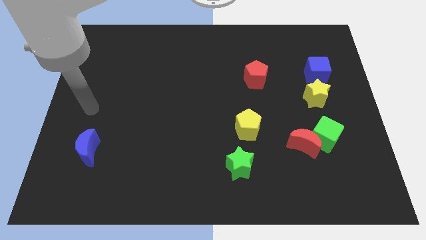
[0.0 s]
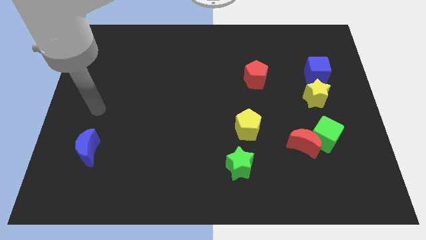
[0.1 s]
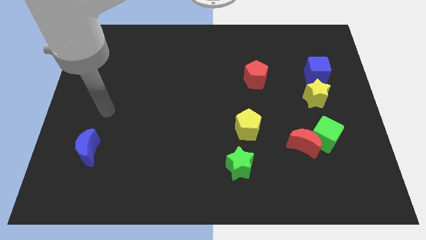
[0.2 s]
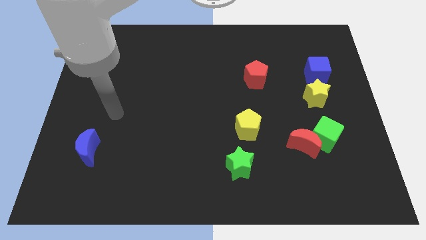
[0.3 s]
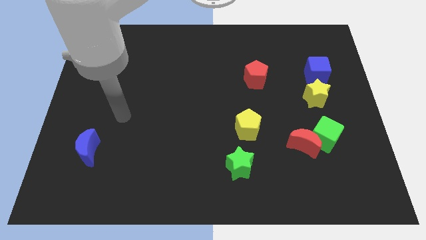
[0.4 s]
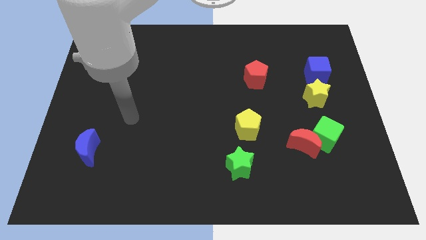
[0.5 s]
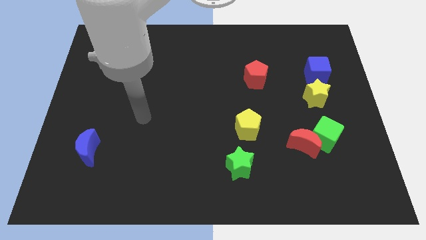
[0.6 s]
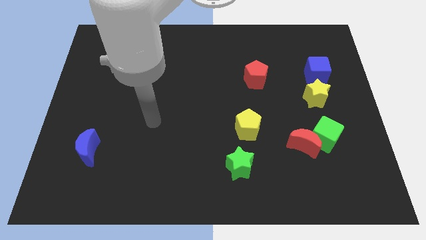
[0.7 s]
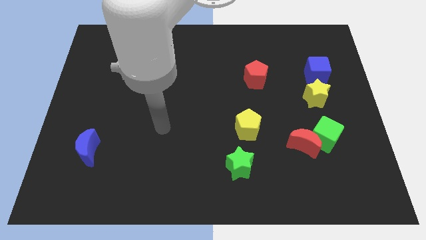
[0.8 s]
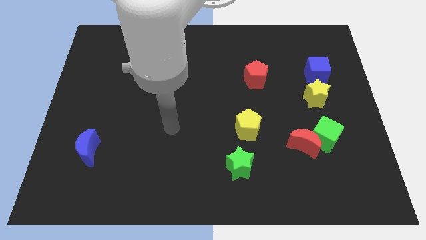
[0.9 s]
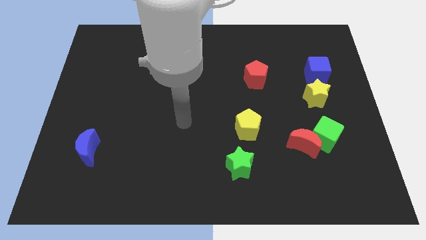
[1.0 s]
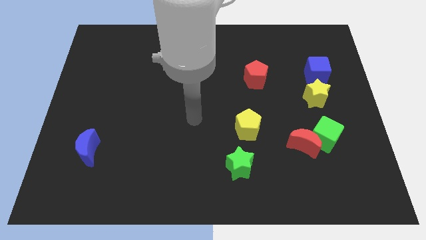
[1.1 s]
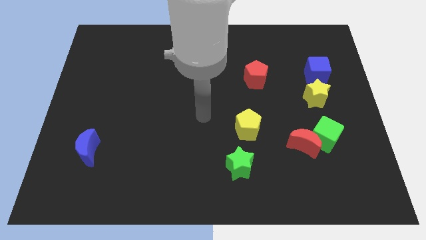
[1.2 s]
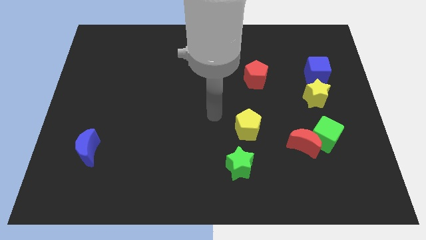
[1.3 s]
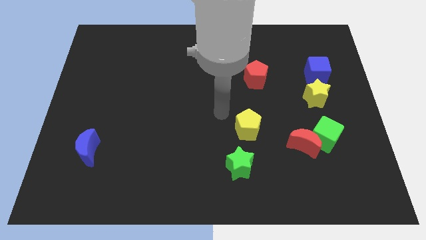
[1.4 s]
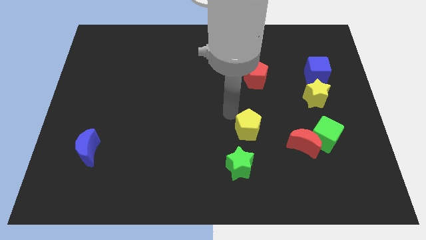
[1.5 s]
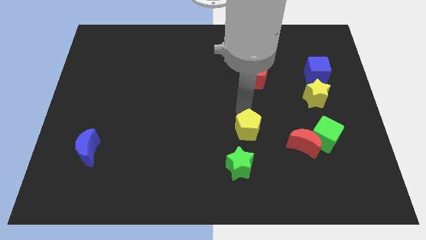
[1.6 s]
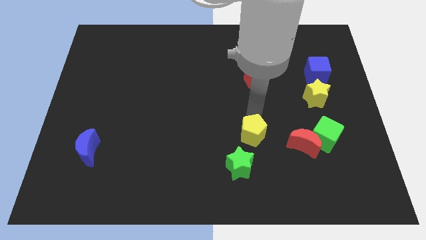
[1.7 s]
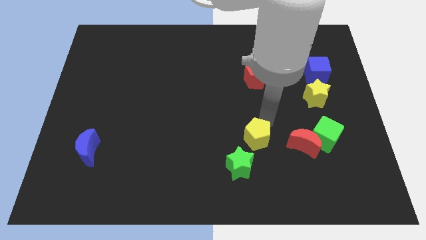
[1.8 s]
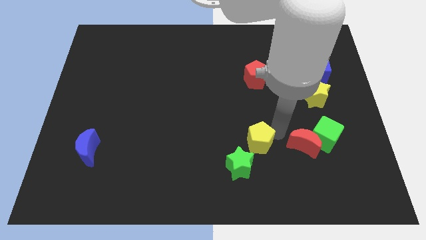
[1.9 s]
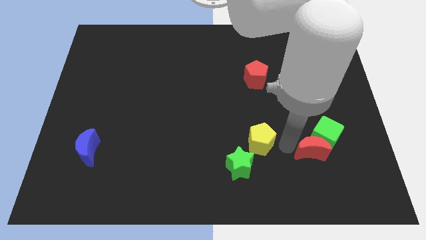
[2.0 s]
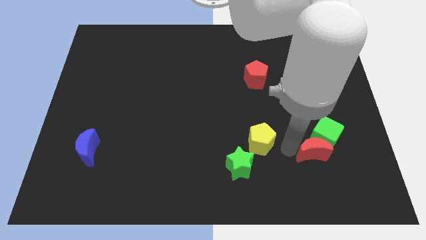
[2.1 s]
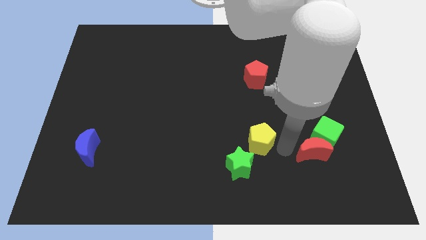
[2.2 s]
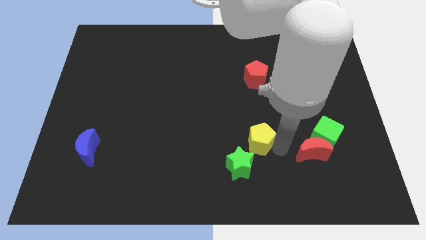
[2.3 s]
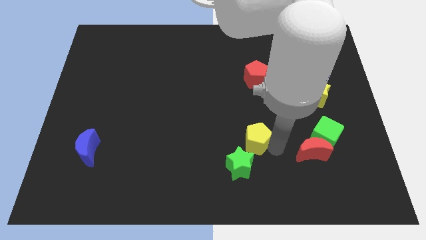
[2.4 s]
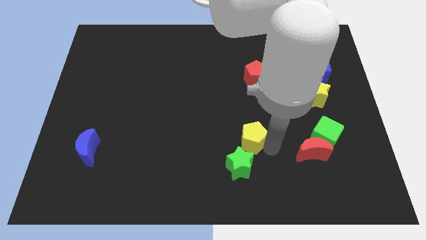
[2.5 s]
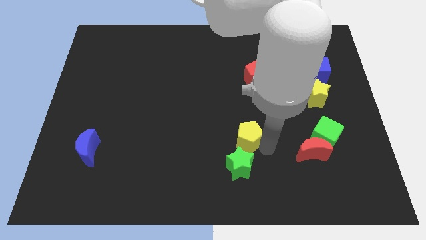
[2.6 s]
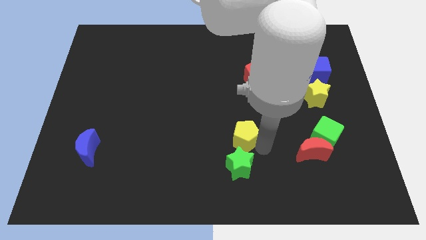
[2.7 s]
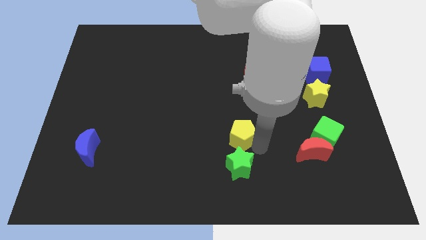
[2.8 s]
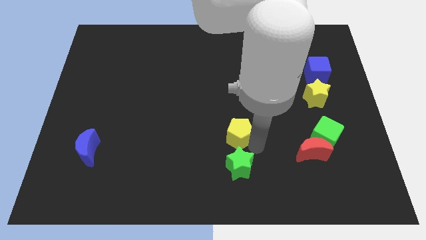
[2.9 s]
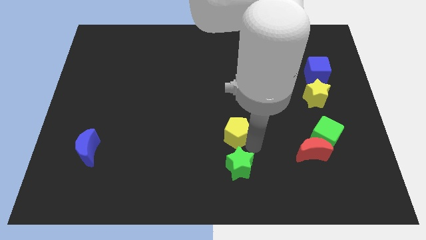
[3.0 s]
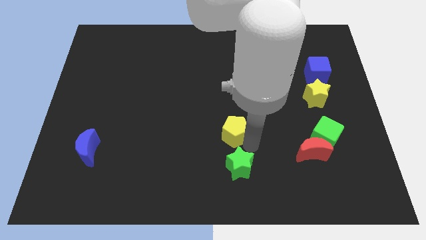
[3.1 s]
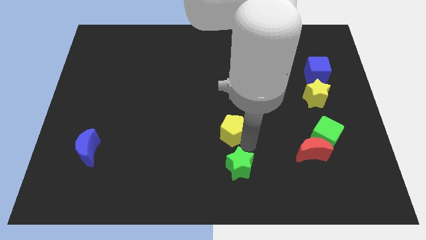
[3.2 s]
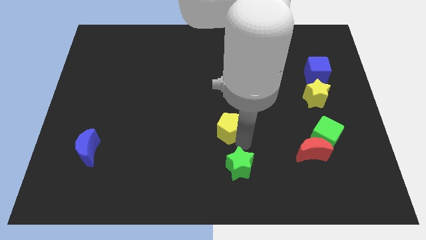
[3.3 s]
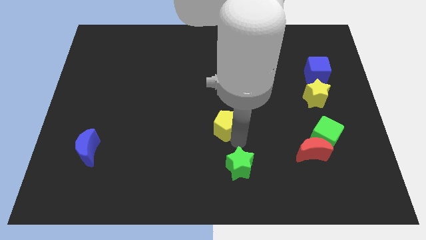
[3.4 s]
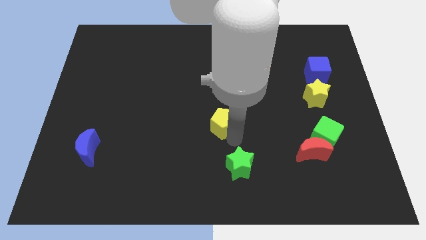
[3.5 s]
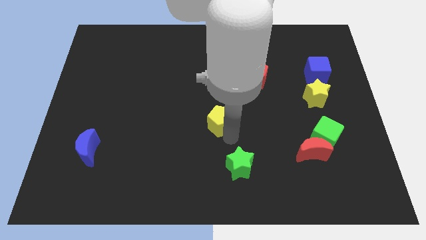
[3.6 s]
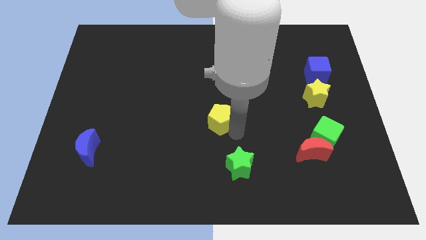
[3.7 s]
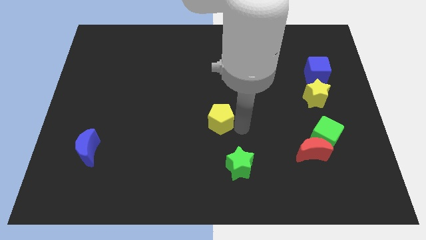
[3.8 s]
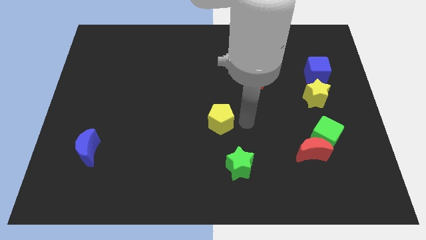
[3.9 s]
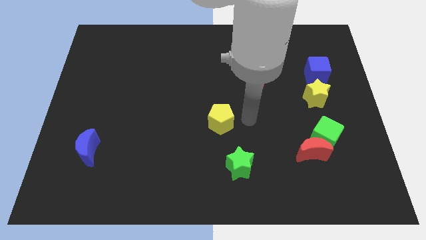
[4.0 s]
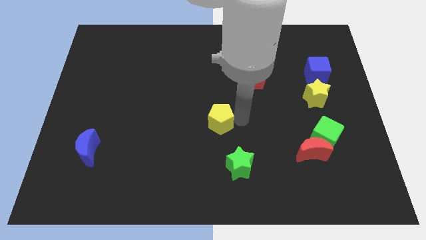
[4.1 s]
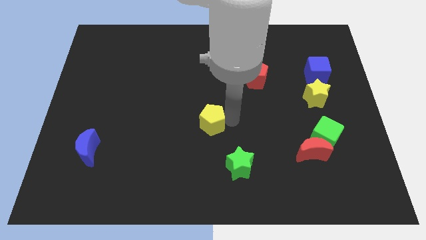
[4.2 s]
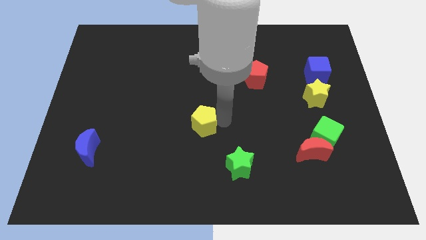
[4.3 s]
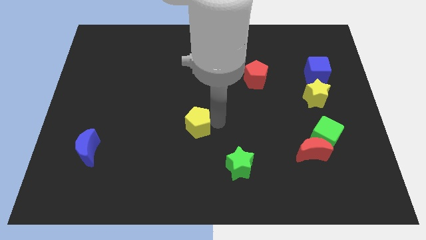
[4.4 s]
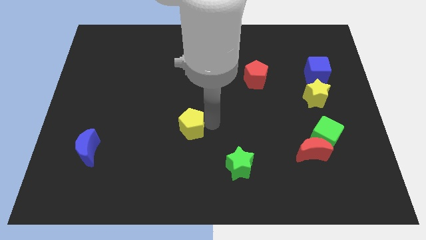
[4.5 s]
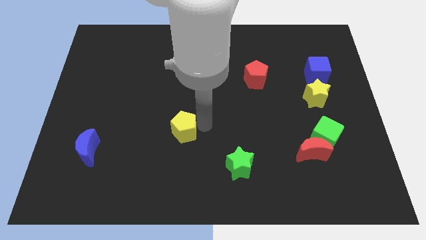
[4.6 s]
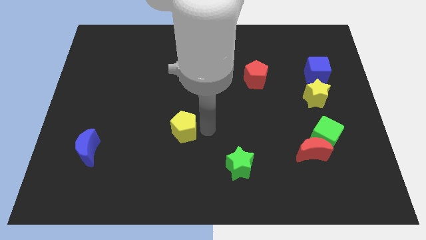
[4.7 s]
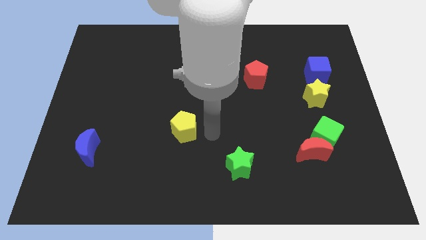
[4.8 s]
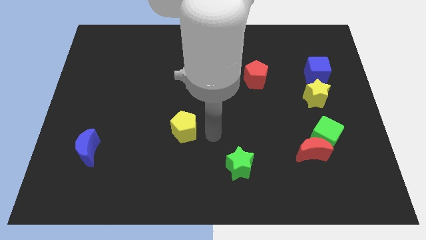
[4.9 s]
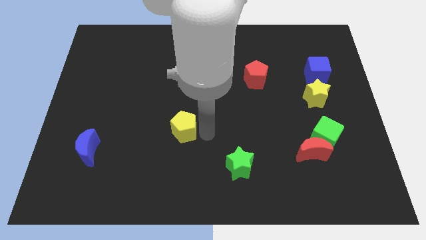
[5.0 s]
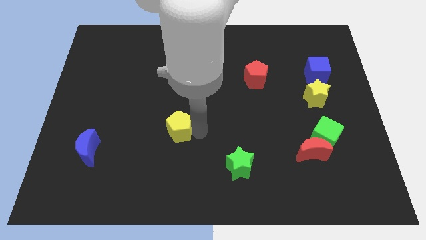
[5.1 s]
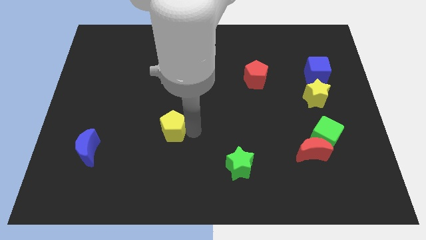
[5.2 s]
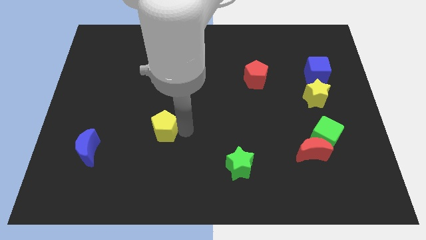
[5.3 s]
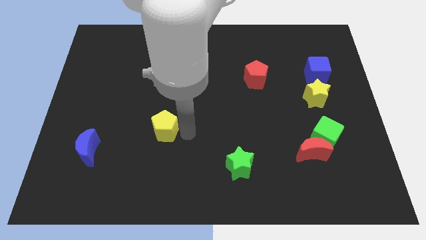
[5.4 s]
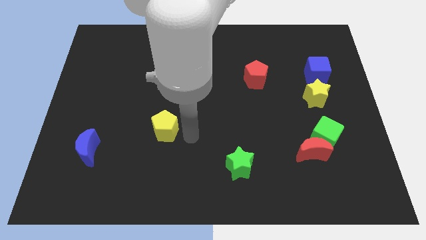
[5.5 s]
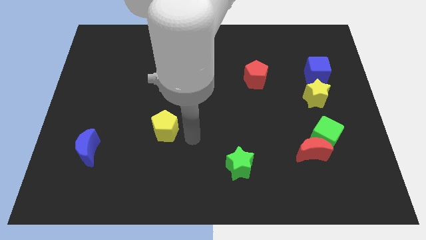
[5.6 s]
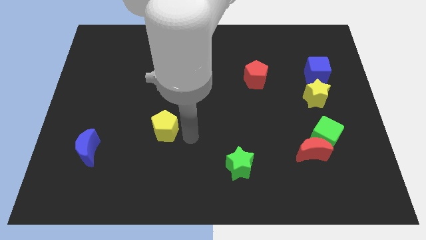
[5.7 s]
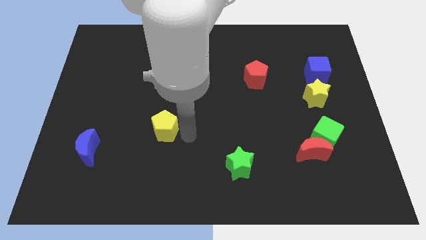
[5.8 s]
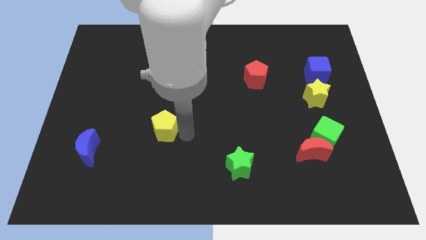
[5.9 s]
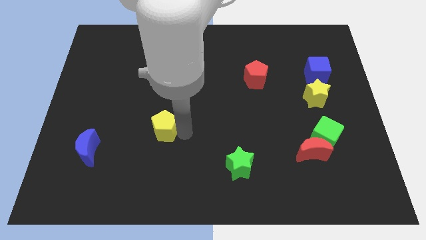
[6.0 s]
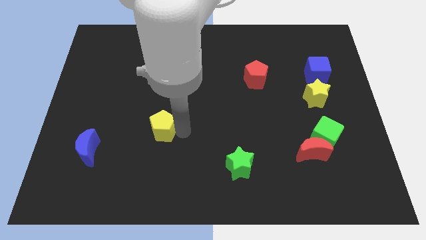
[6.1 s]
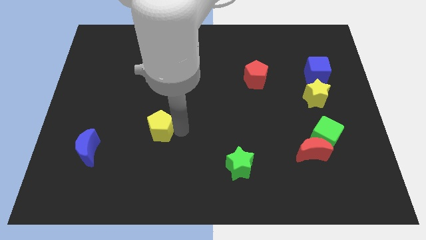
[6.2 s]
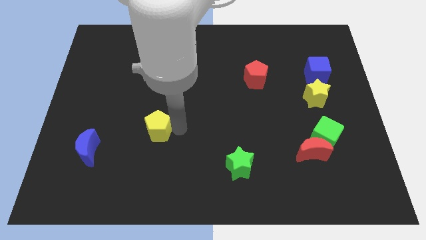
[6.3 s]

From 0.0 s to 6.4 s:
slide the yellow pentagon left

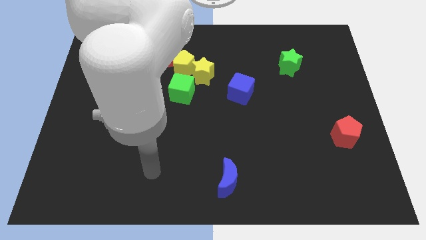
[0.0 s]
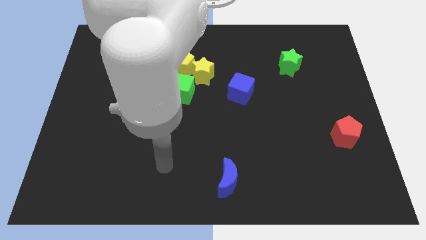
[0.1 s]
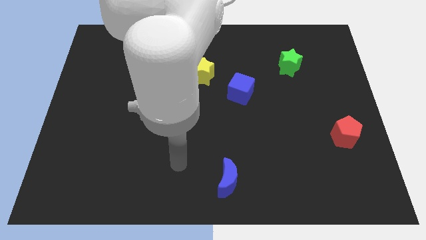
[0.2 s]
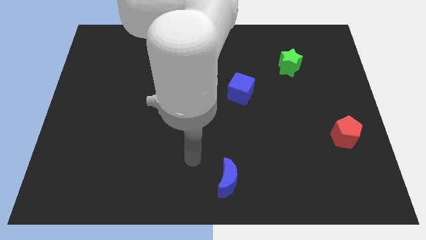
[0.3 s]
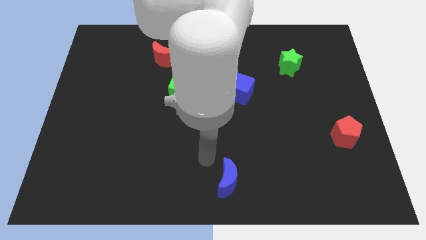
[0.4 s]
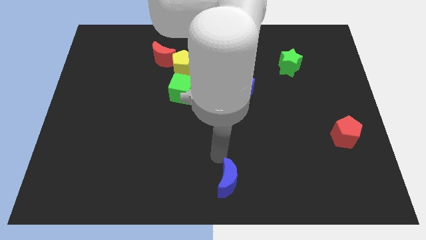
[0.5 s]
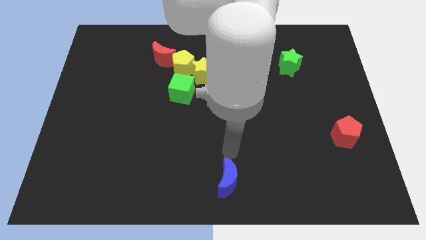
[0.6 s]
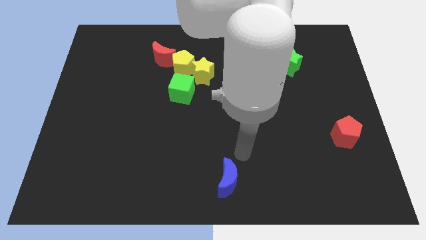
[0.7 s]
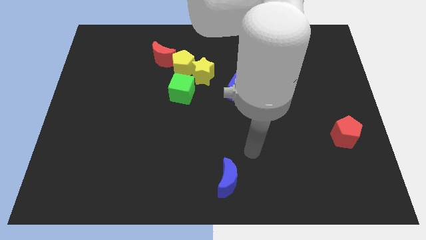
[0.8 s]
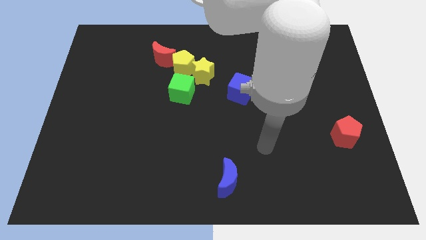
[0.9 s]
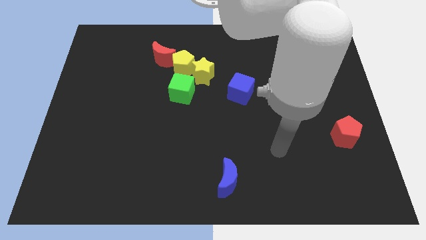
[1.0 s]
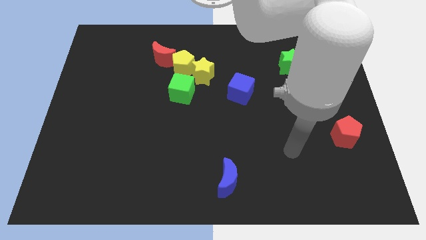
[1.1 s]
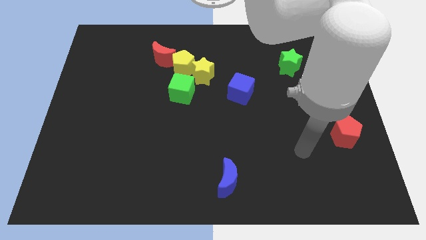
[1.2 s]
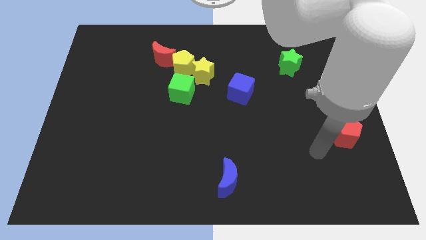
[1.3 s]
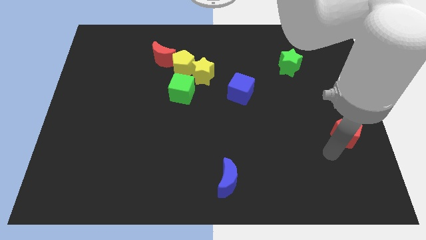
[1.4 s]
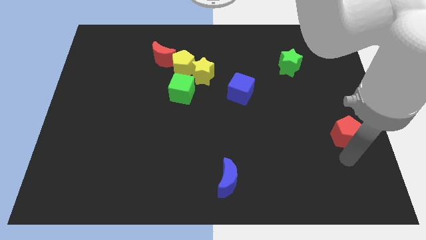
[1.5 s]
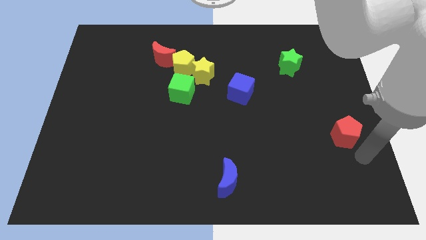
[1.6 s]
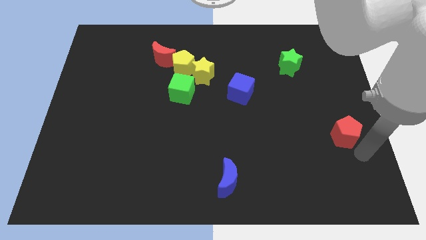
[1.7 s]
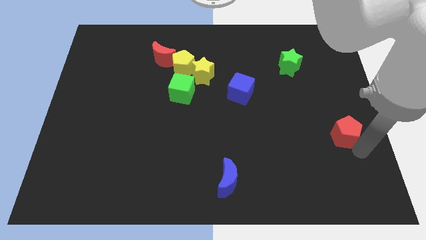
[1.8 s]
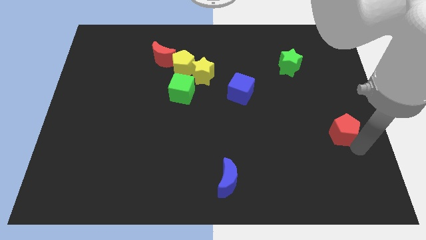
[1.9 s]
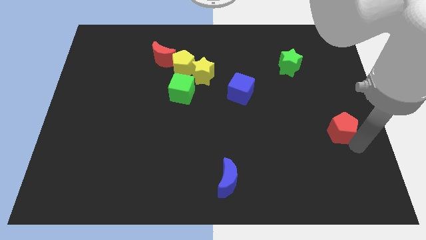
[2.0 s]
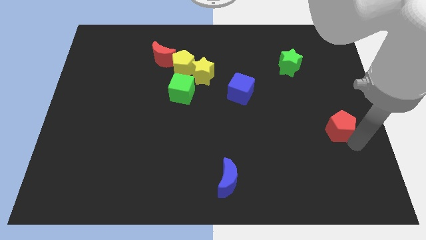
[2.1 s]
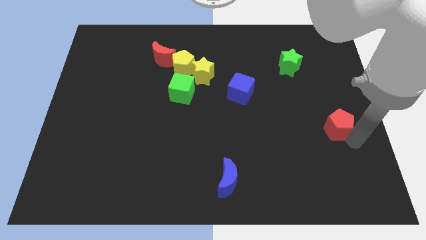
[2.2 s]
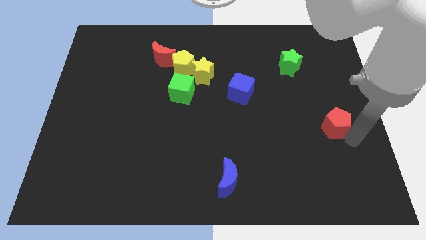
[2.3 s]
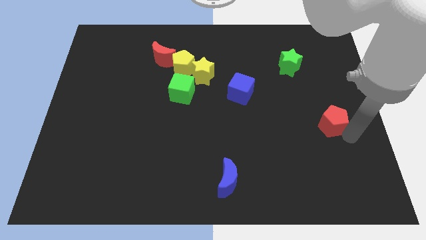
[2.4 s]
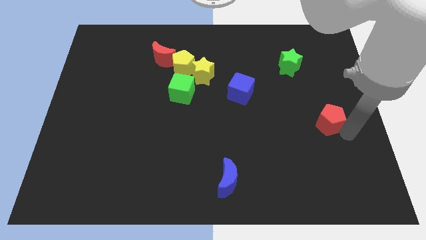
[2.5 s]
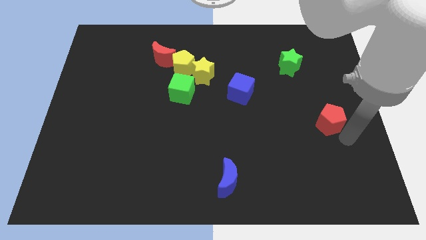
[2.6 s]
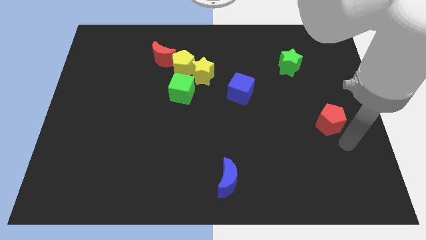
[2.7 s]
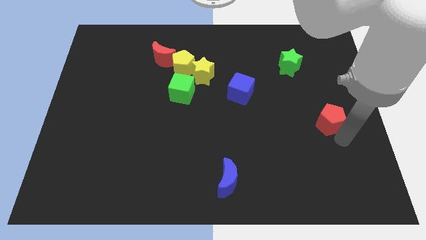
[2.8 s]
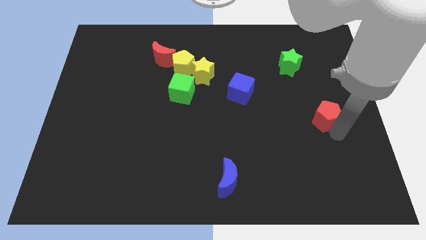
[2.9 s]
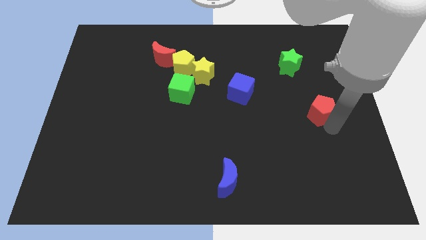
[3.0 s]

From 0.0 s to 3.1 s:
slightly slide the red pentagon upwards and left
